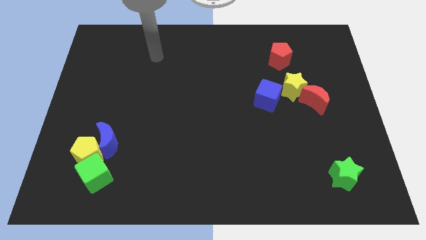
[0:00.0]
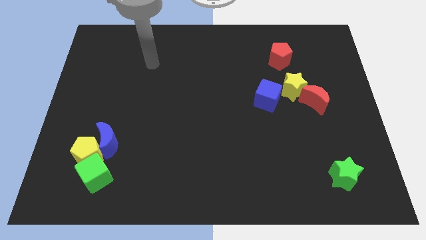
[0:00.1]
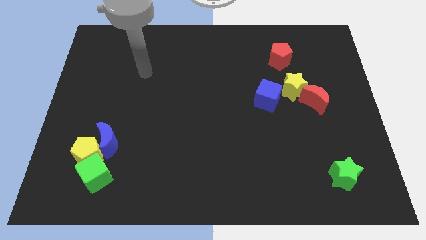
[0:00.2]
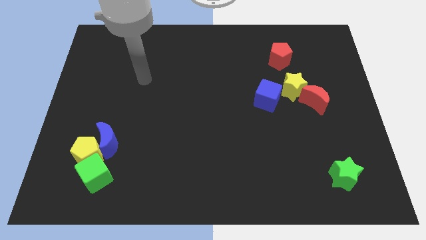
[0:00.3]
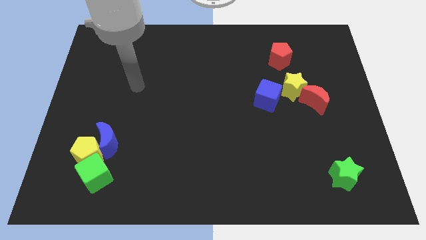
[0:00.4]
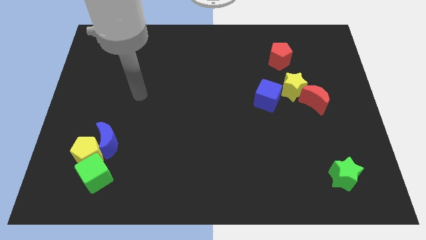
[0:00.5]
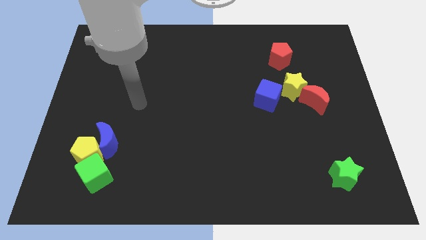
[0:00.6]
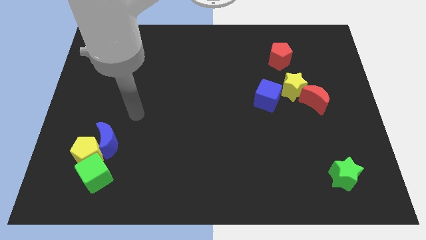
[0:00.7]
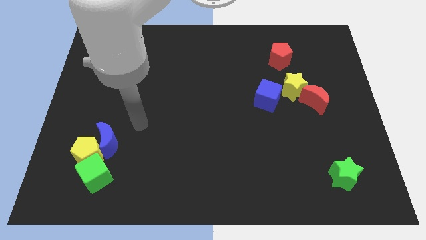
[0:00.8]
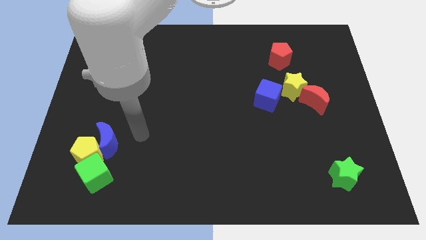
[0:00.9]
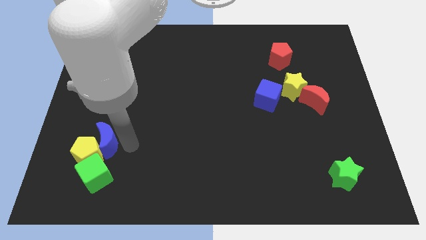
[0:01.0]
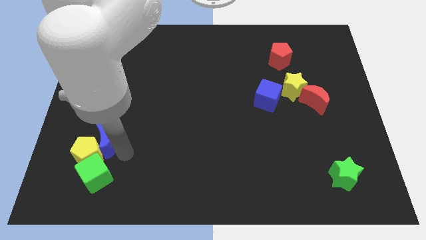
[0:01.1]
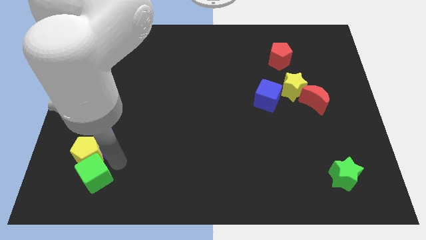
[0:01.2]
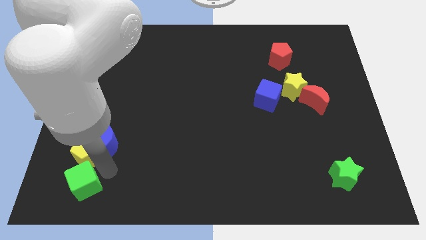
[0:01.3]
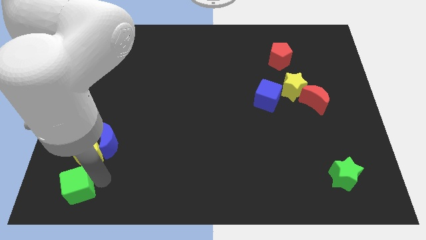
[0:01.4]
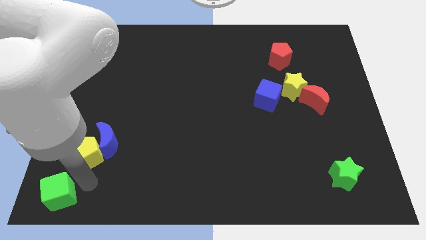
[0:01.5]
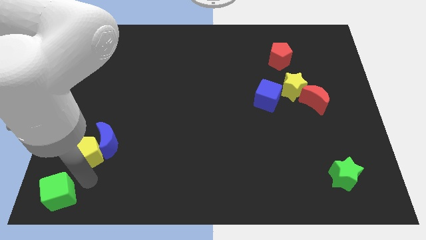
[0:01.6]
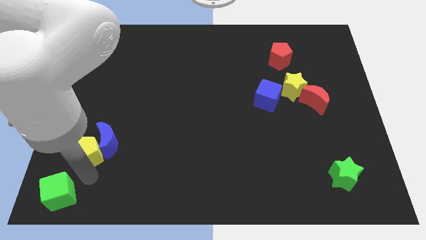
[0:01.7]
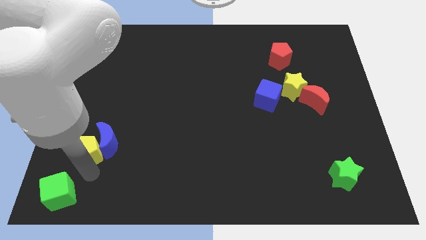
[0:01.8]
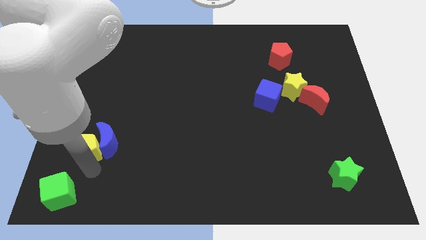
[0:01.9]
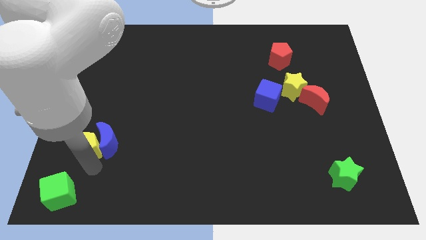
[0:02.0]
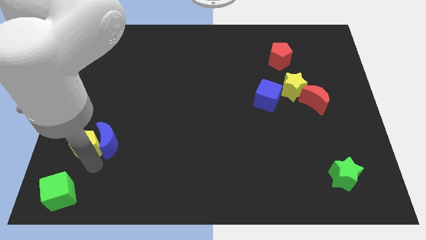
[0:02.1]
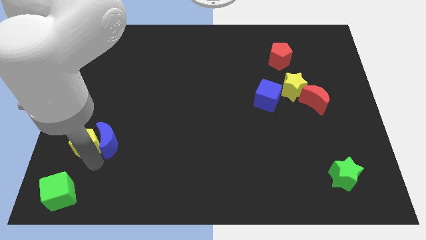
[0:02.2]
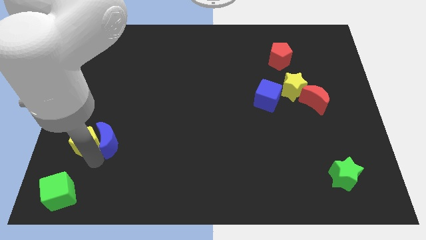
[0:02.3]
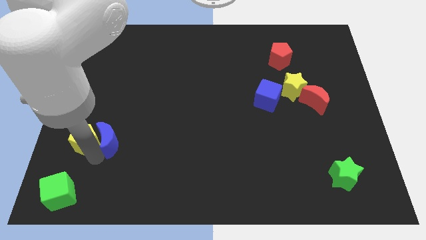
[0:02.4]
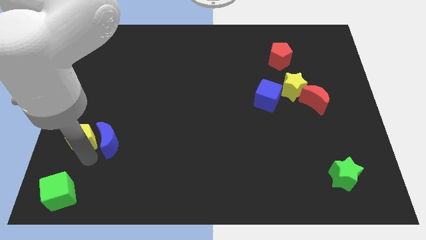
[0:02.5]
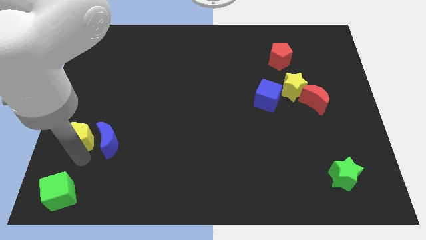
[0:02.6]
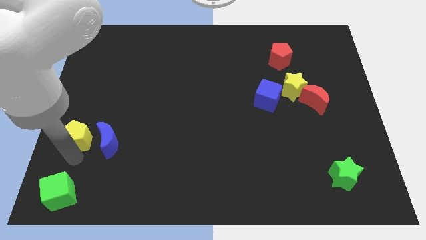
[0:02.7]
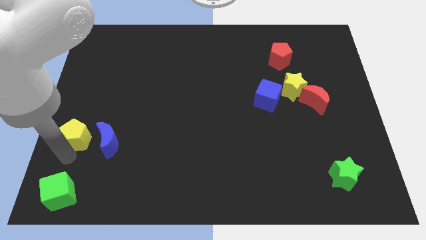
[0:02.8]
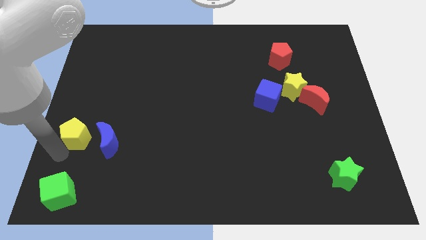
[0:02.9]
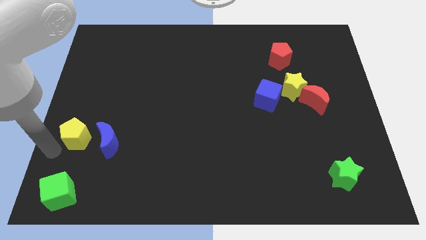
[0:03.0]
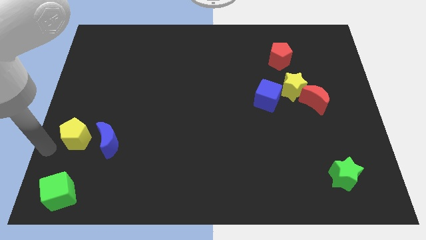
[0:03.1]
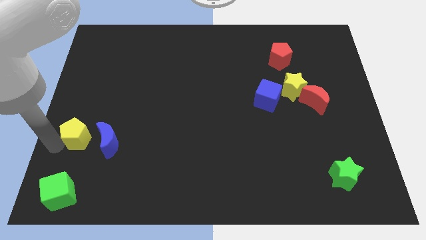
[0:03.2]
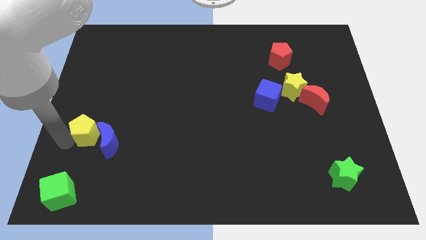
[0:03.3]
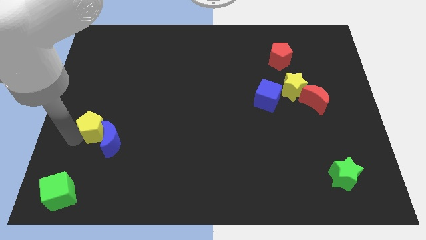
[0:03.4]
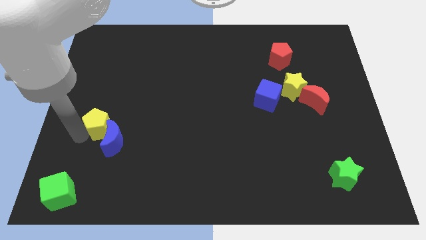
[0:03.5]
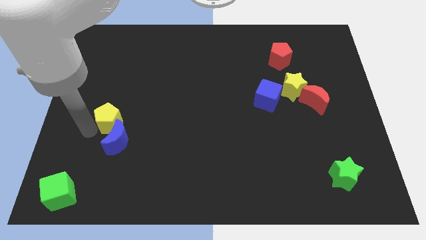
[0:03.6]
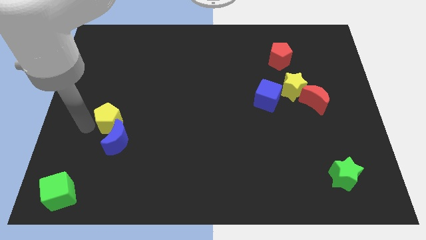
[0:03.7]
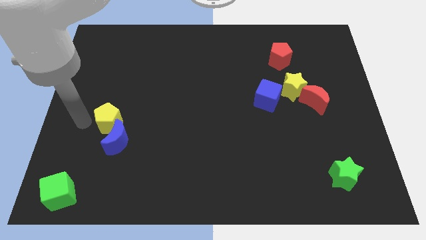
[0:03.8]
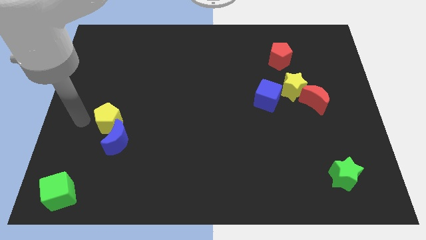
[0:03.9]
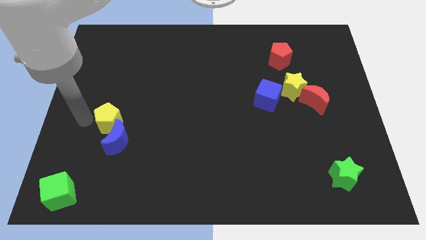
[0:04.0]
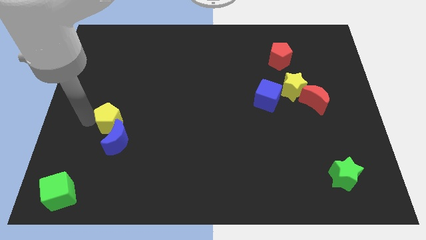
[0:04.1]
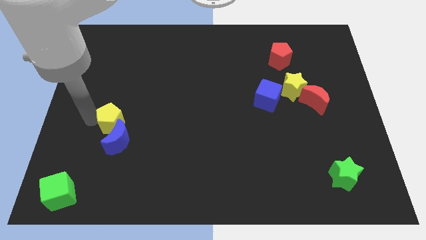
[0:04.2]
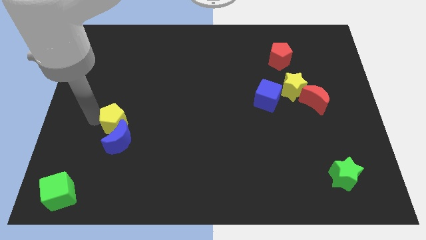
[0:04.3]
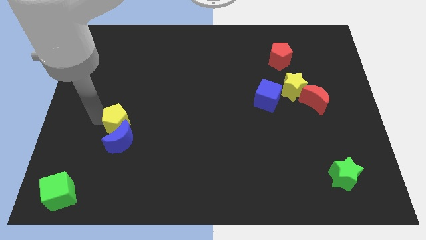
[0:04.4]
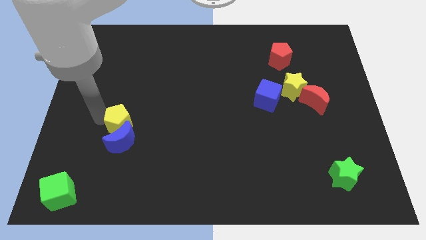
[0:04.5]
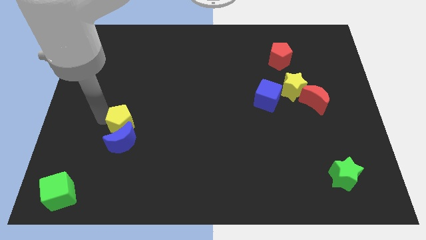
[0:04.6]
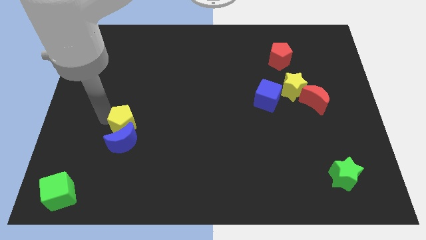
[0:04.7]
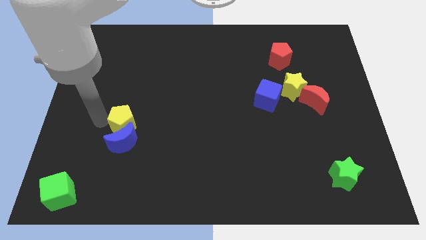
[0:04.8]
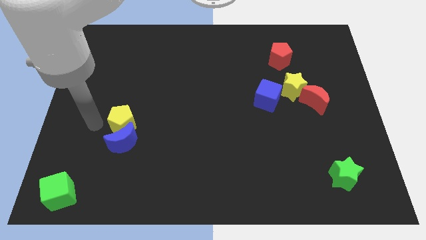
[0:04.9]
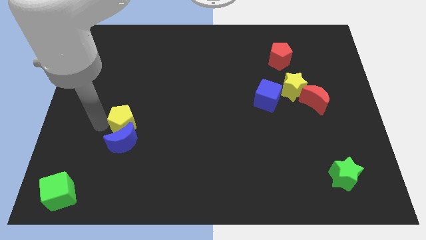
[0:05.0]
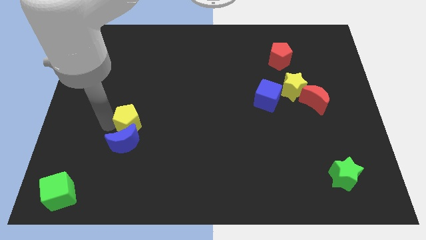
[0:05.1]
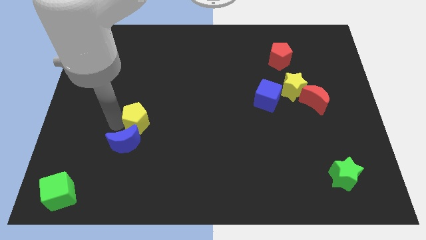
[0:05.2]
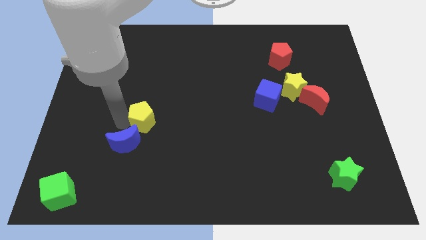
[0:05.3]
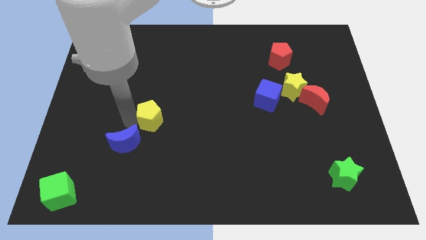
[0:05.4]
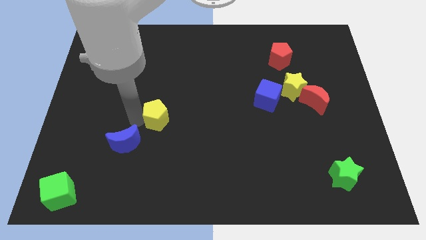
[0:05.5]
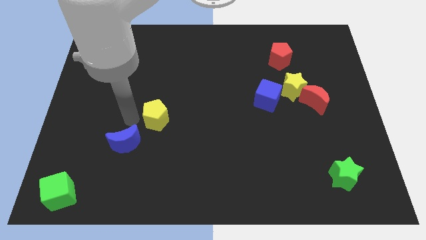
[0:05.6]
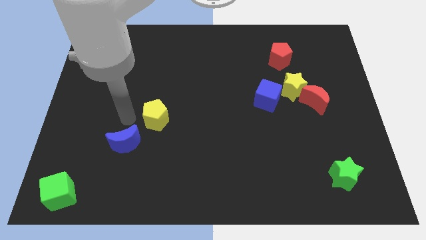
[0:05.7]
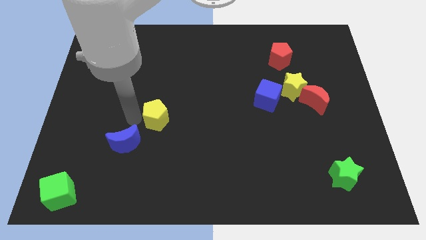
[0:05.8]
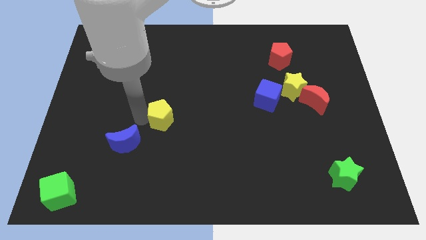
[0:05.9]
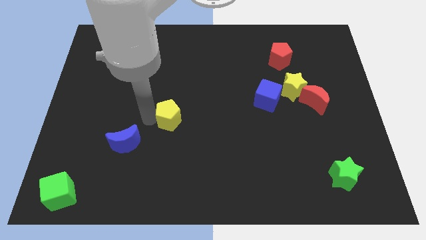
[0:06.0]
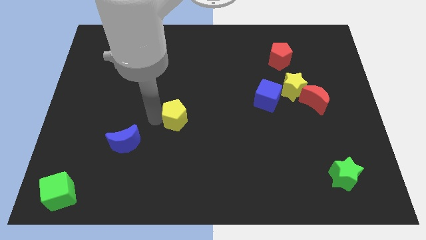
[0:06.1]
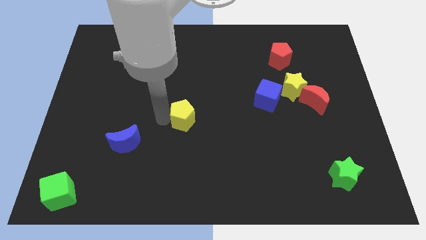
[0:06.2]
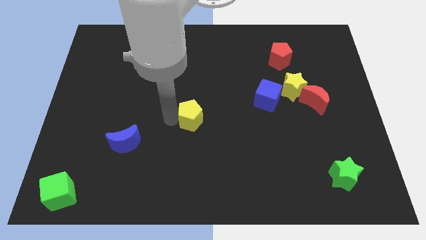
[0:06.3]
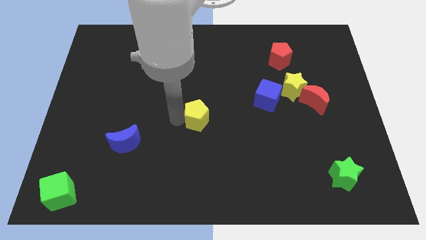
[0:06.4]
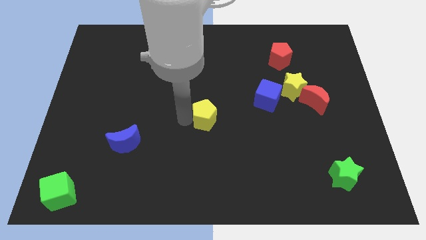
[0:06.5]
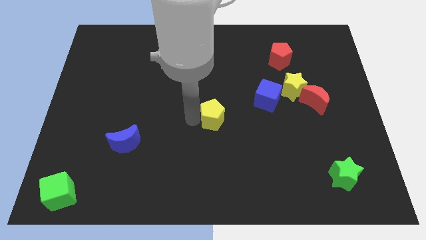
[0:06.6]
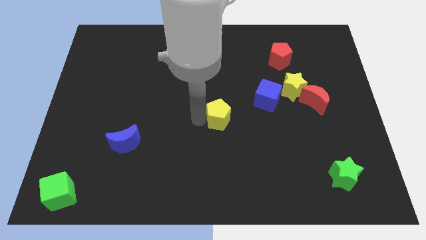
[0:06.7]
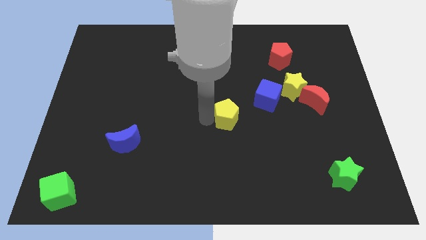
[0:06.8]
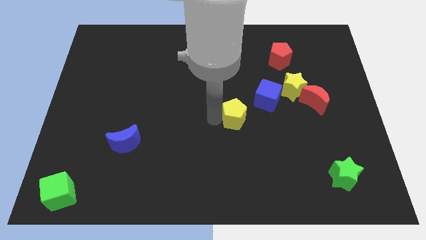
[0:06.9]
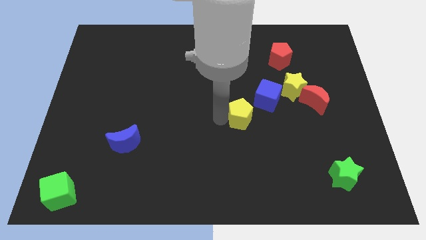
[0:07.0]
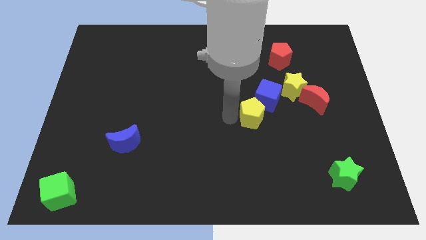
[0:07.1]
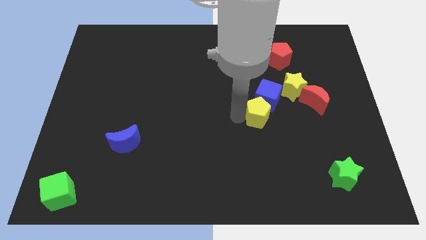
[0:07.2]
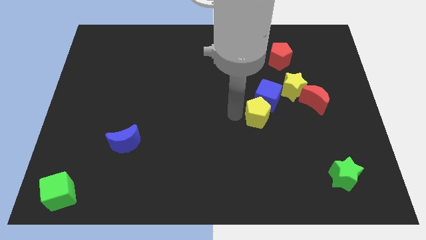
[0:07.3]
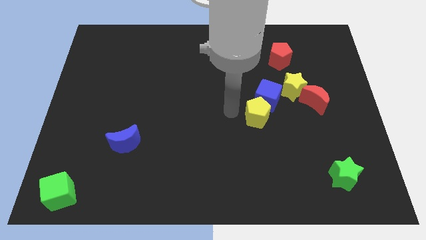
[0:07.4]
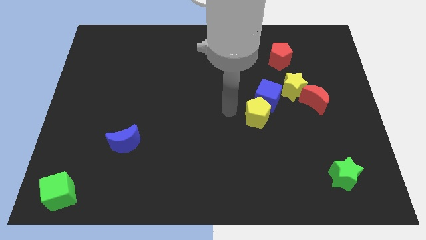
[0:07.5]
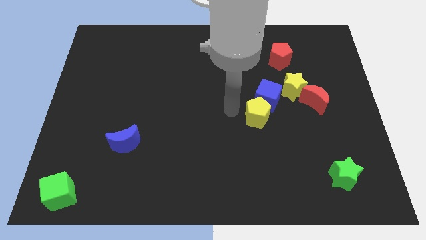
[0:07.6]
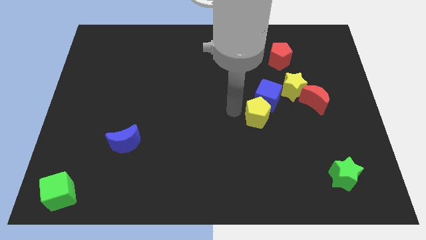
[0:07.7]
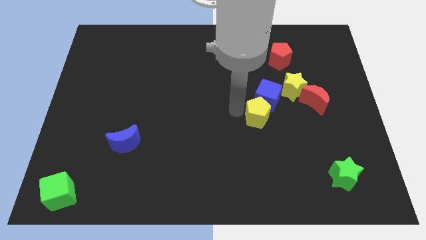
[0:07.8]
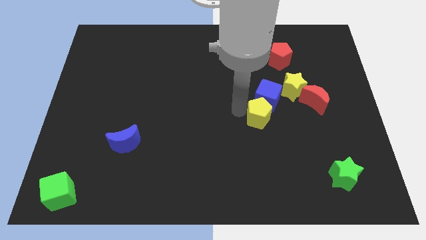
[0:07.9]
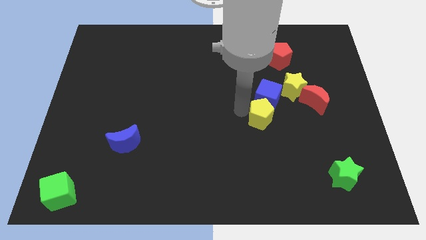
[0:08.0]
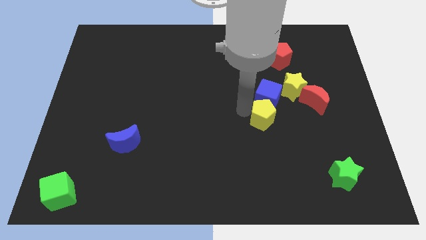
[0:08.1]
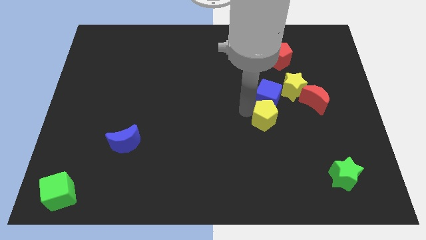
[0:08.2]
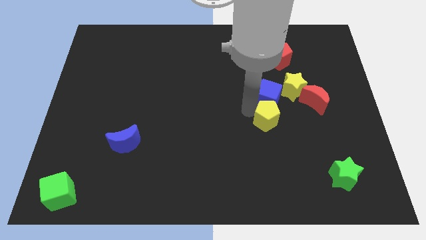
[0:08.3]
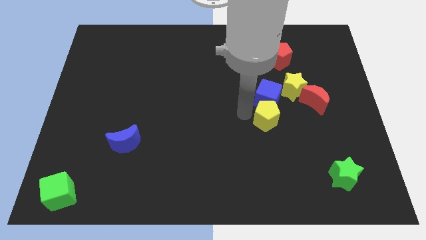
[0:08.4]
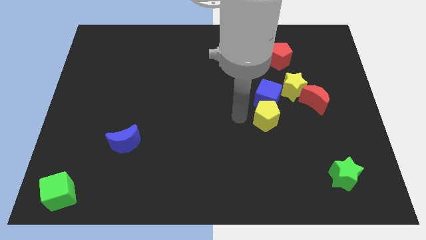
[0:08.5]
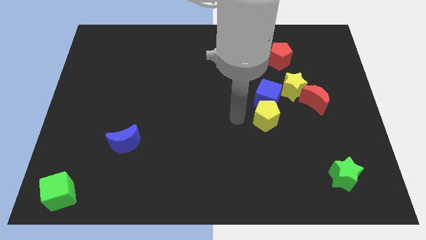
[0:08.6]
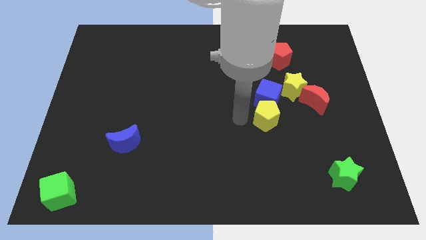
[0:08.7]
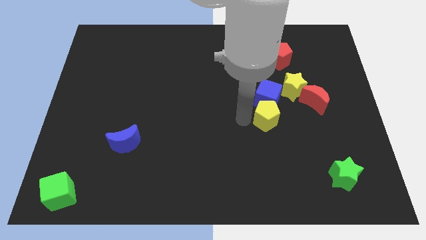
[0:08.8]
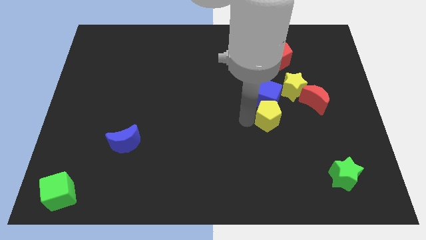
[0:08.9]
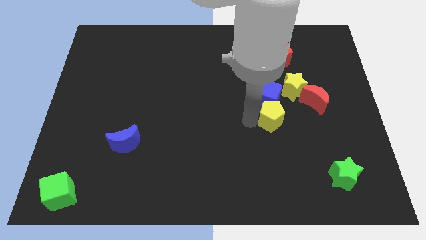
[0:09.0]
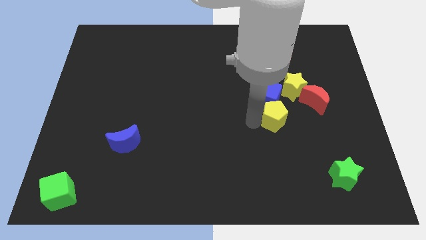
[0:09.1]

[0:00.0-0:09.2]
put the yellow pentagon to the bottom left side of the red moon
